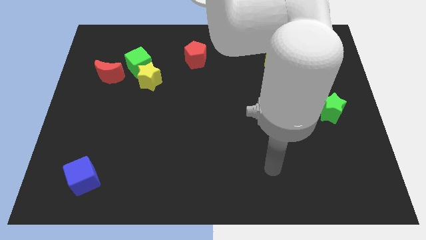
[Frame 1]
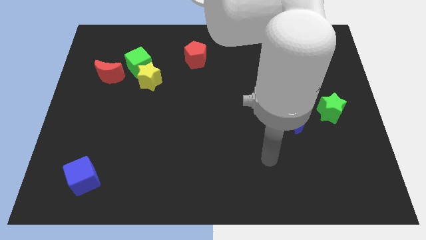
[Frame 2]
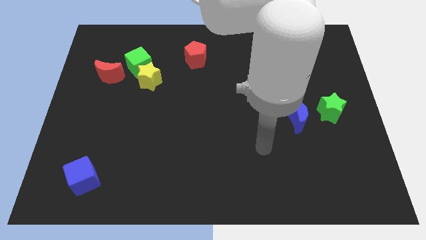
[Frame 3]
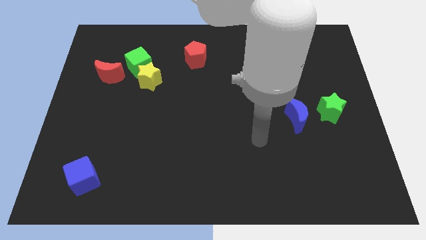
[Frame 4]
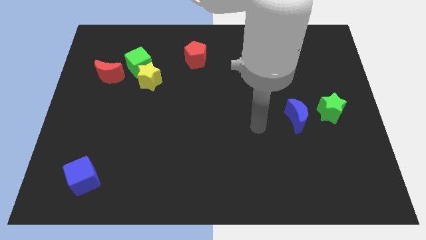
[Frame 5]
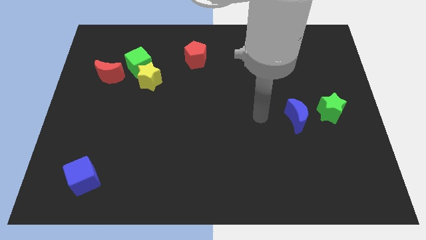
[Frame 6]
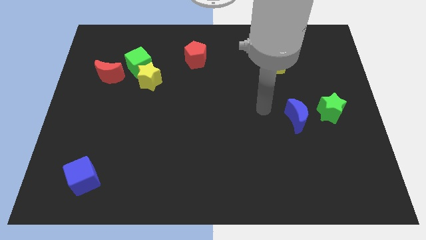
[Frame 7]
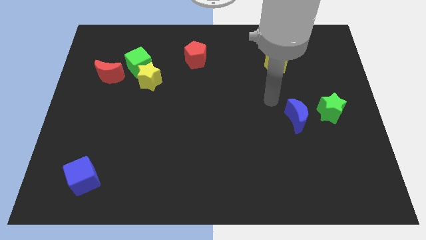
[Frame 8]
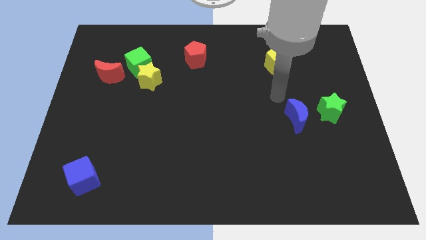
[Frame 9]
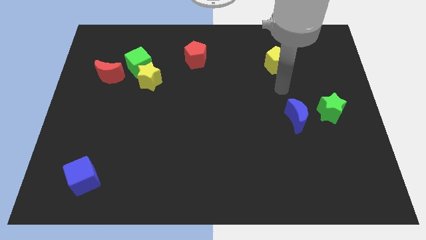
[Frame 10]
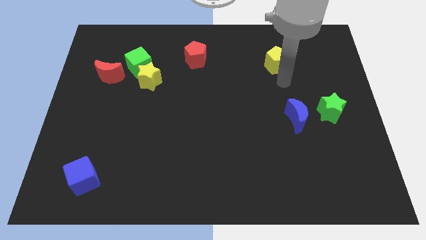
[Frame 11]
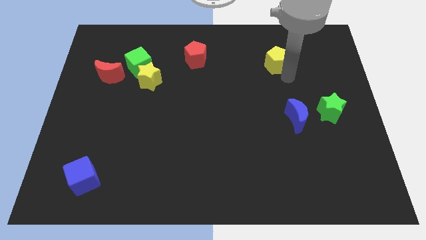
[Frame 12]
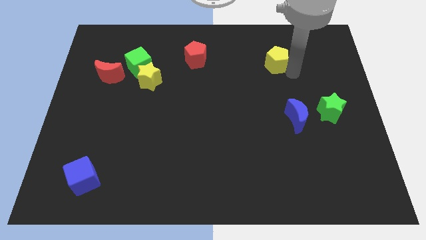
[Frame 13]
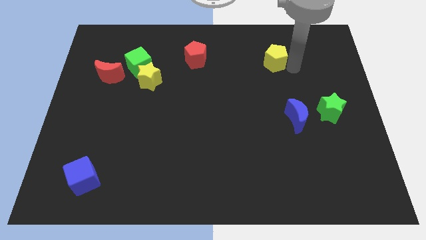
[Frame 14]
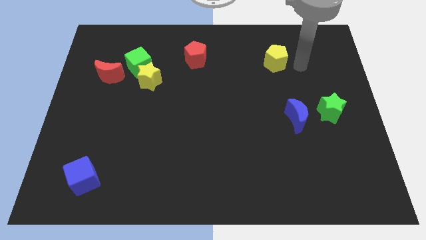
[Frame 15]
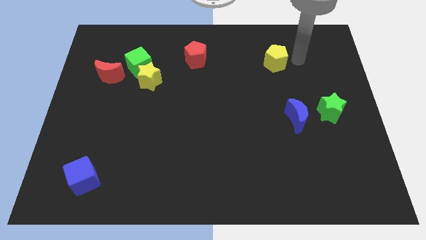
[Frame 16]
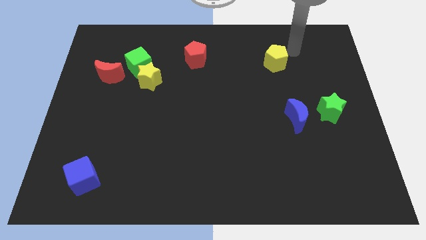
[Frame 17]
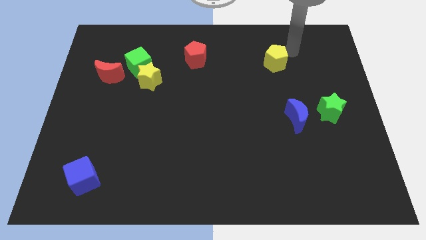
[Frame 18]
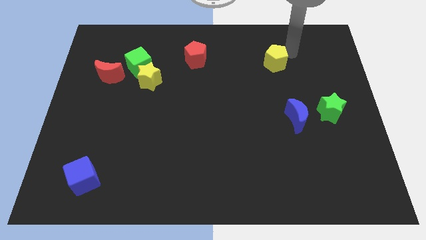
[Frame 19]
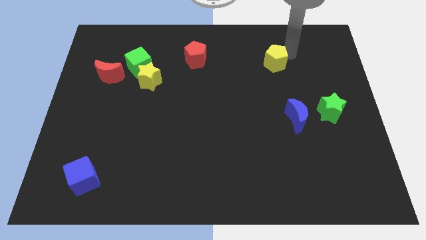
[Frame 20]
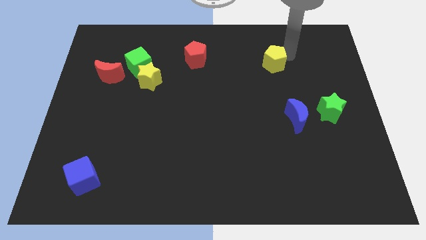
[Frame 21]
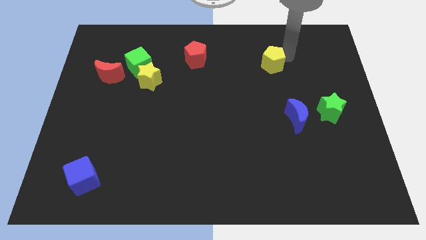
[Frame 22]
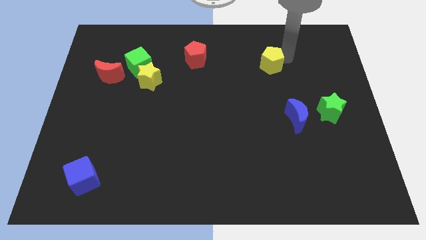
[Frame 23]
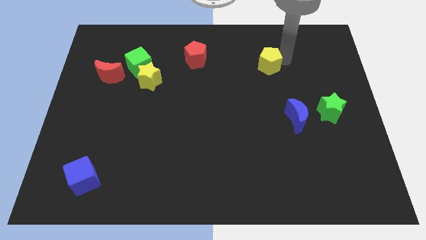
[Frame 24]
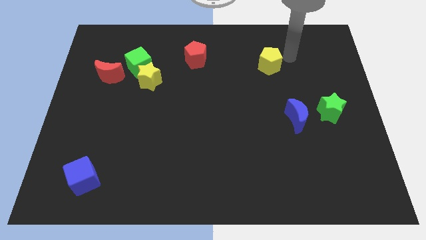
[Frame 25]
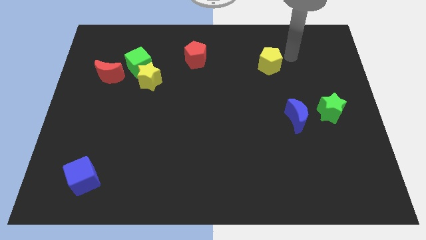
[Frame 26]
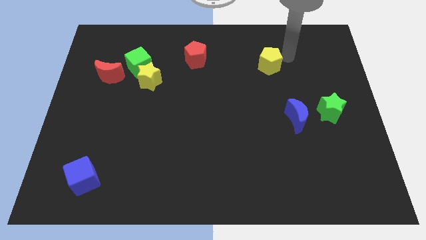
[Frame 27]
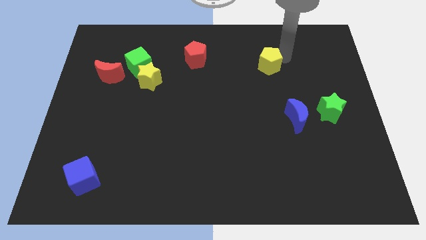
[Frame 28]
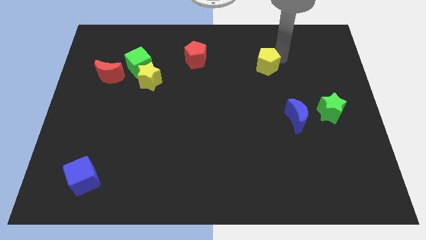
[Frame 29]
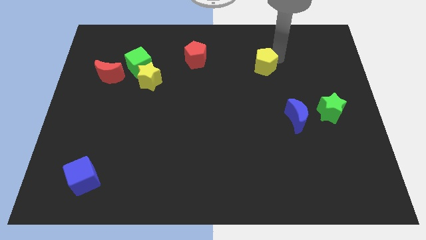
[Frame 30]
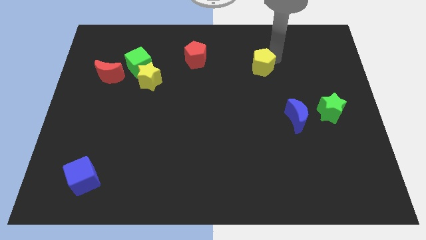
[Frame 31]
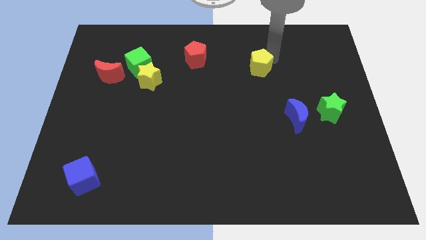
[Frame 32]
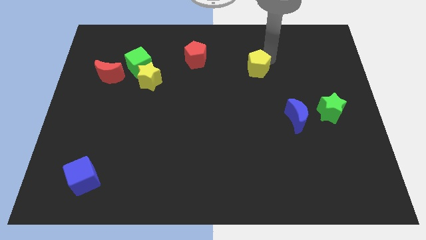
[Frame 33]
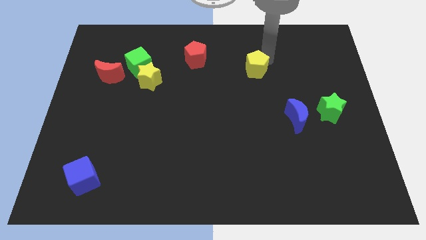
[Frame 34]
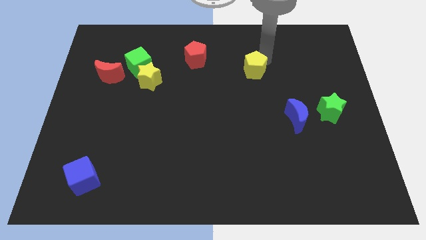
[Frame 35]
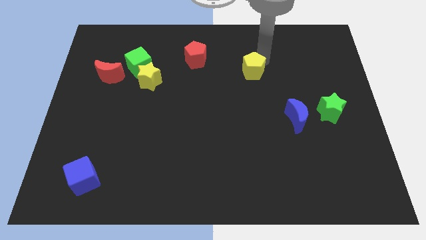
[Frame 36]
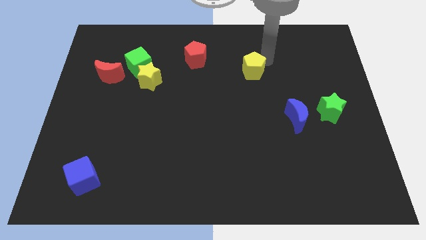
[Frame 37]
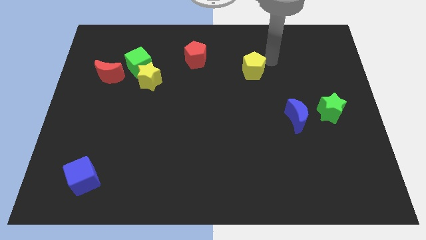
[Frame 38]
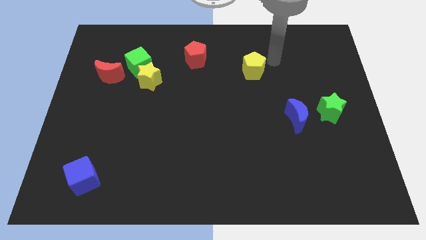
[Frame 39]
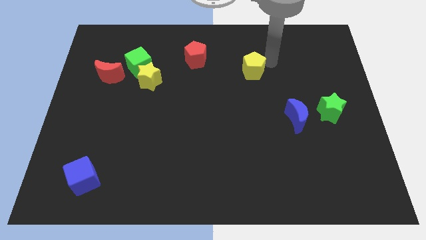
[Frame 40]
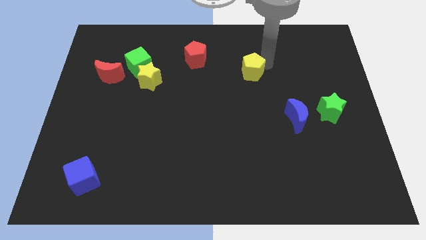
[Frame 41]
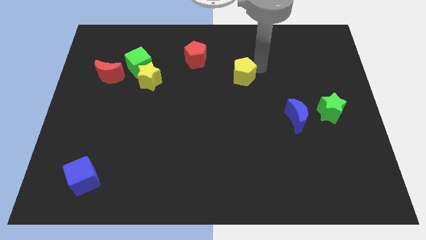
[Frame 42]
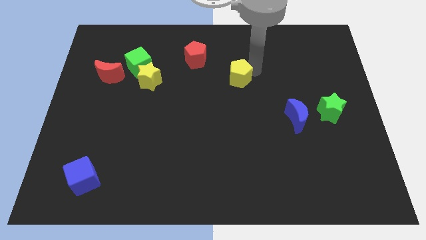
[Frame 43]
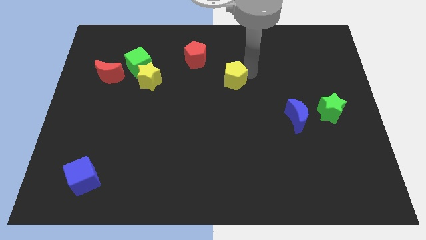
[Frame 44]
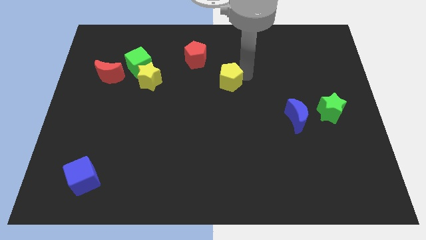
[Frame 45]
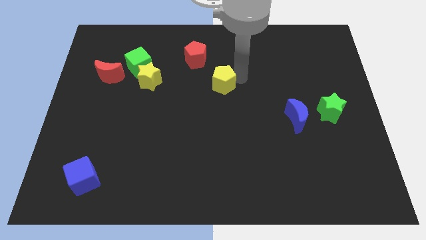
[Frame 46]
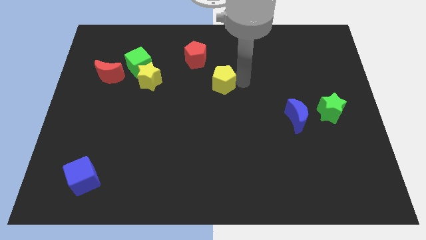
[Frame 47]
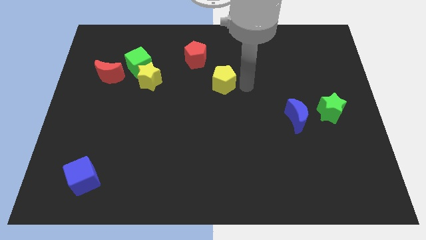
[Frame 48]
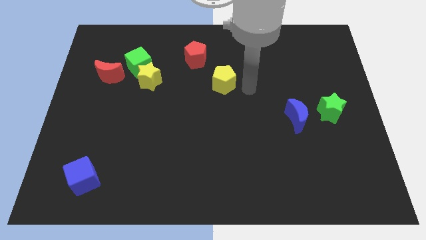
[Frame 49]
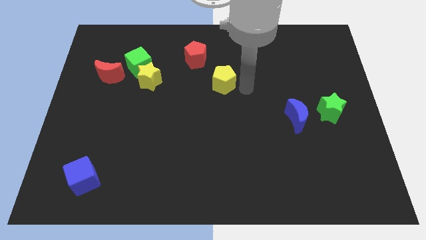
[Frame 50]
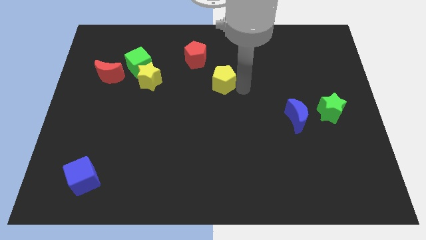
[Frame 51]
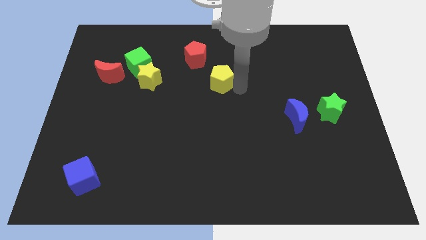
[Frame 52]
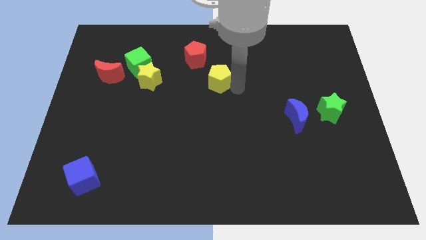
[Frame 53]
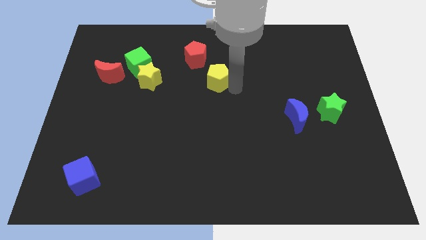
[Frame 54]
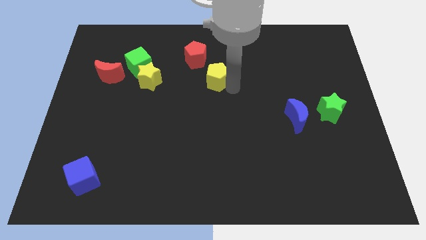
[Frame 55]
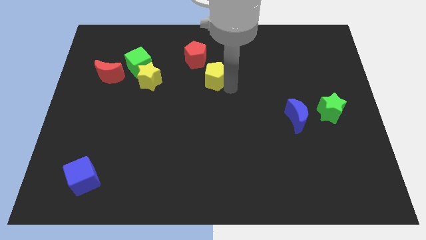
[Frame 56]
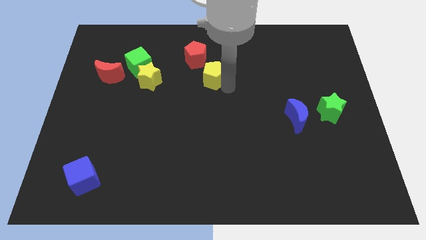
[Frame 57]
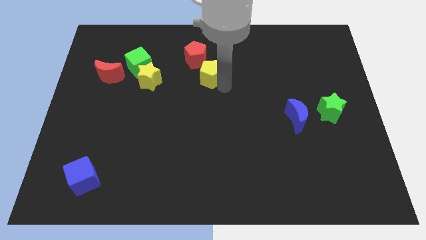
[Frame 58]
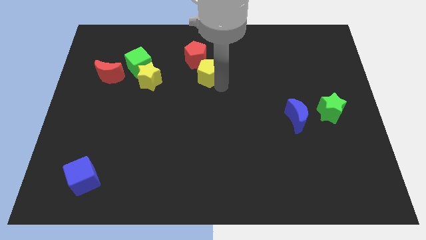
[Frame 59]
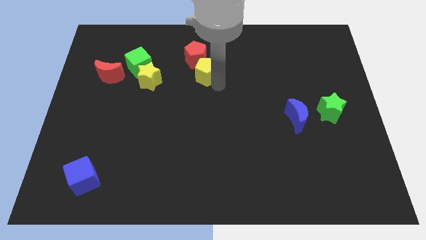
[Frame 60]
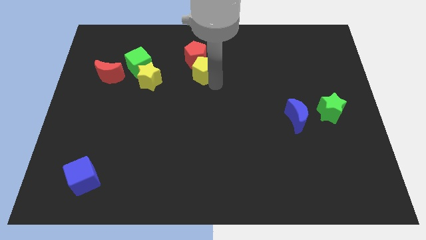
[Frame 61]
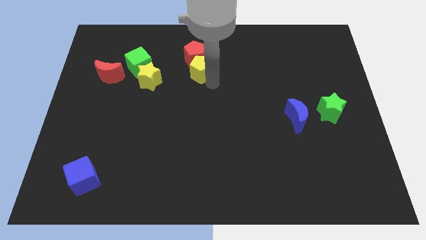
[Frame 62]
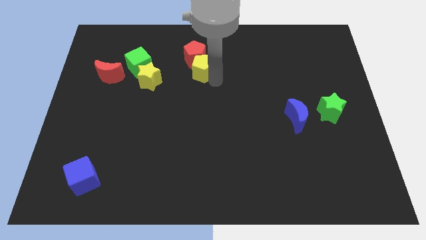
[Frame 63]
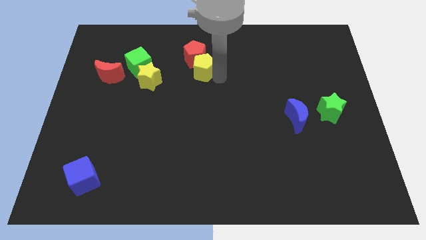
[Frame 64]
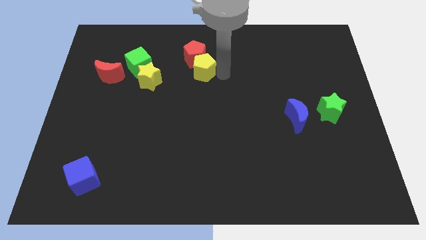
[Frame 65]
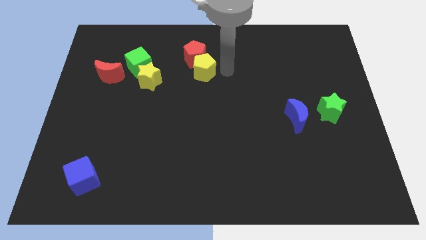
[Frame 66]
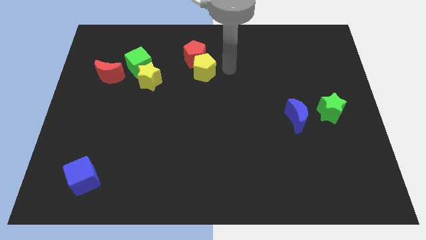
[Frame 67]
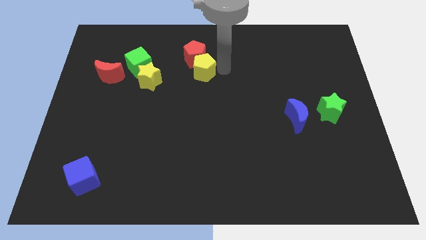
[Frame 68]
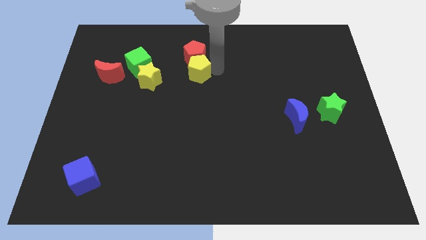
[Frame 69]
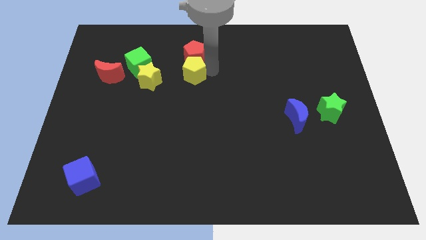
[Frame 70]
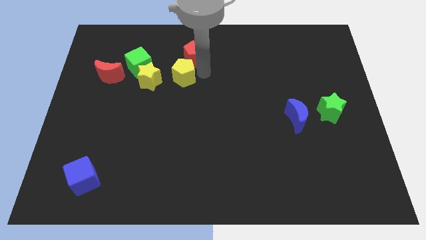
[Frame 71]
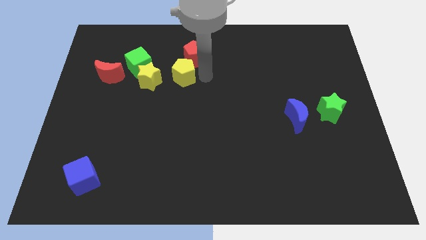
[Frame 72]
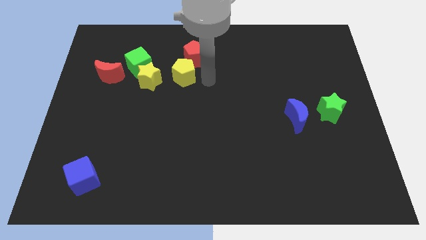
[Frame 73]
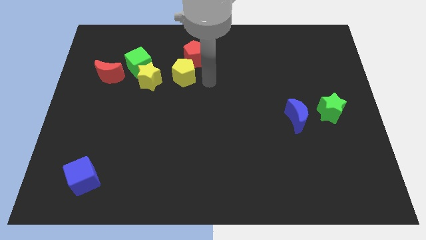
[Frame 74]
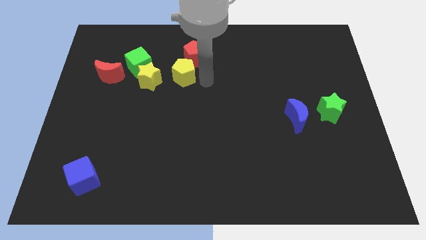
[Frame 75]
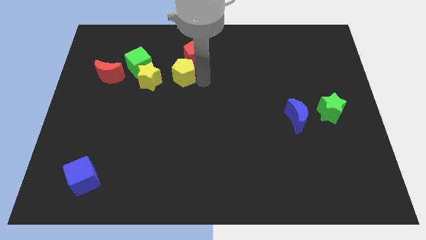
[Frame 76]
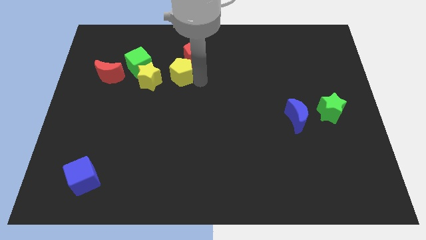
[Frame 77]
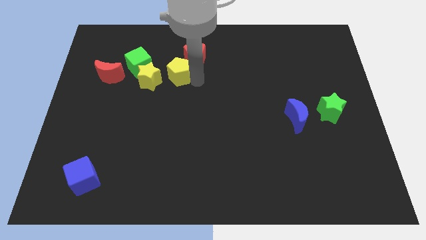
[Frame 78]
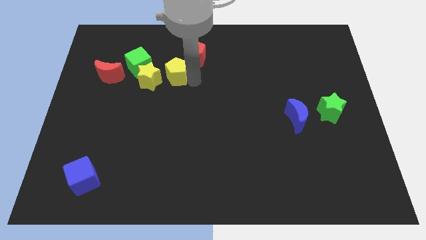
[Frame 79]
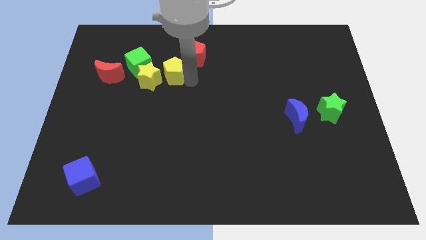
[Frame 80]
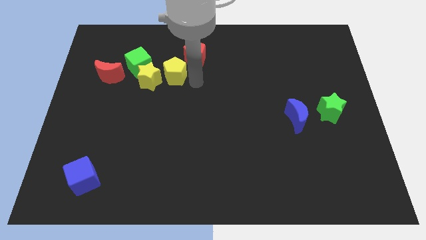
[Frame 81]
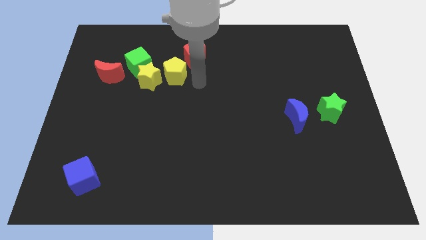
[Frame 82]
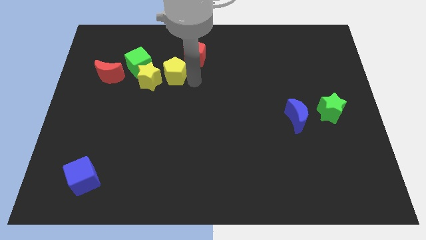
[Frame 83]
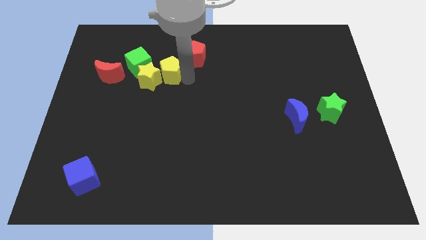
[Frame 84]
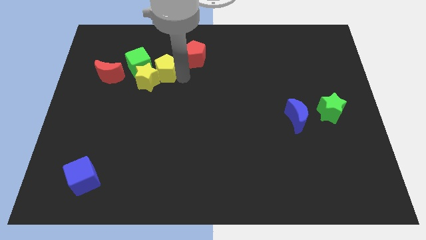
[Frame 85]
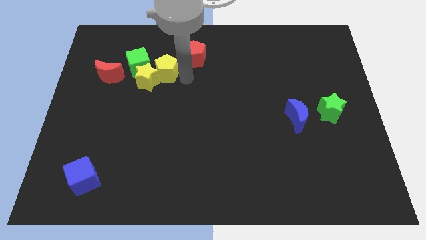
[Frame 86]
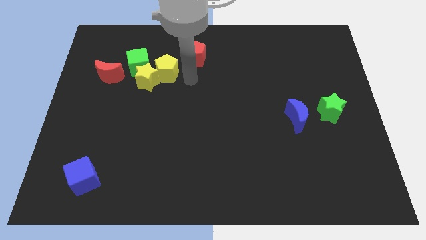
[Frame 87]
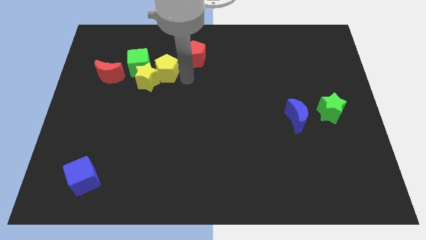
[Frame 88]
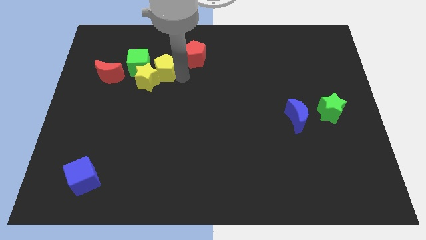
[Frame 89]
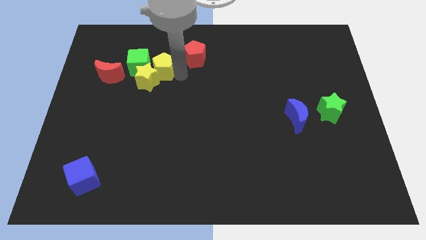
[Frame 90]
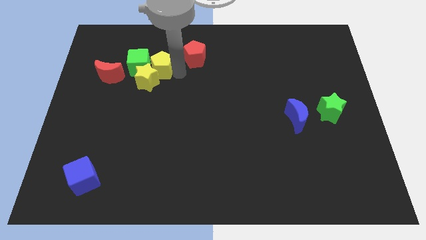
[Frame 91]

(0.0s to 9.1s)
slide the yellow pentagon towards the green cube
